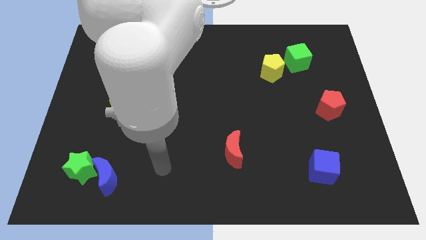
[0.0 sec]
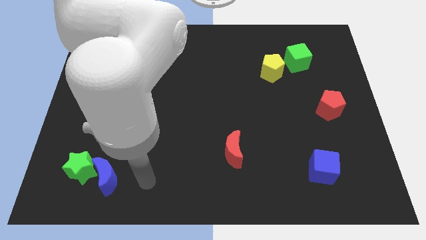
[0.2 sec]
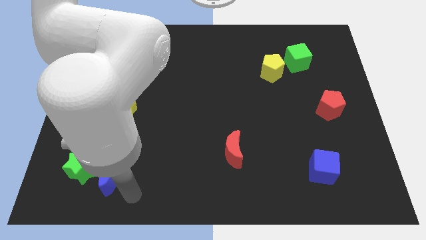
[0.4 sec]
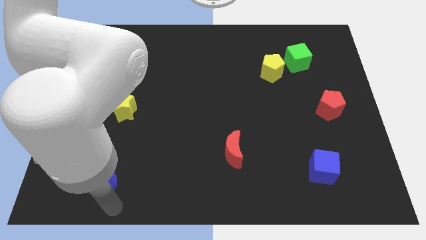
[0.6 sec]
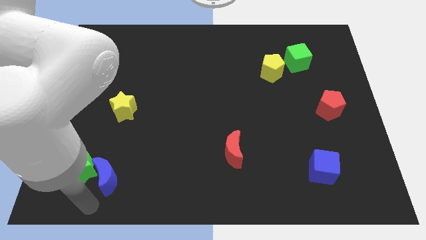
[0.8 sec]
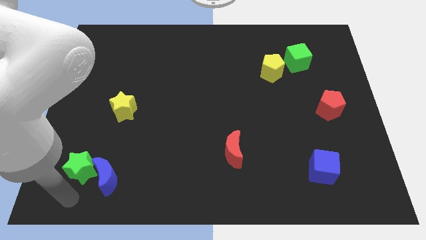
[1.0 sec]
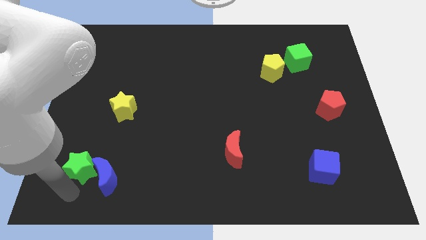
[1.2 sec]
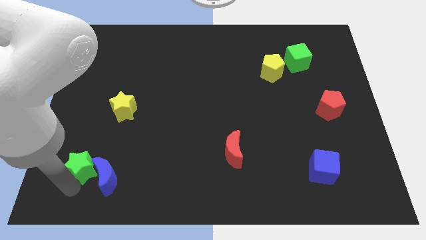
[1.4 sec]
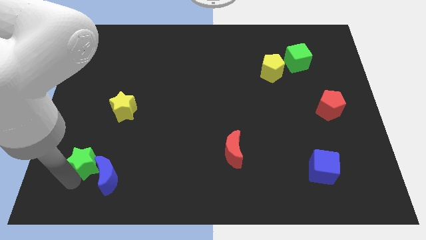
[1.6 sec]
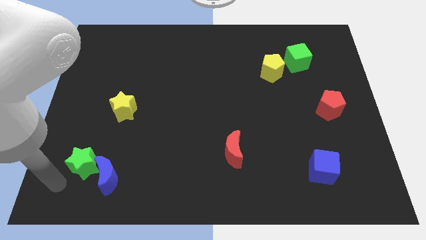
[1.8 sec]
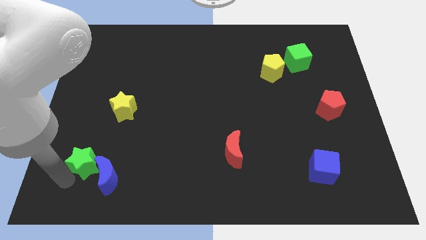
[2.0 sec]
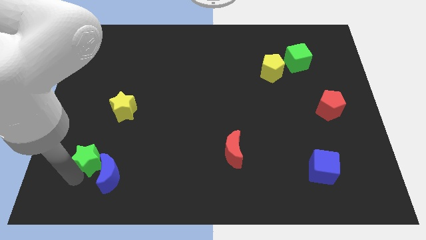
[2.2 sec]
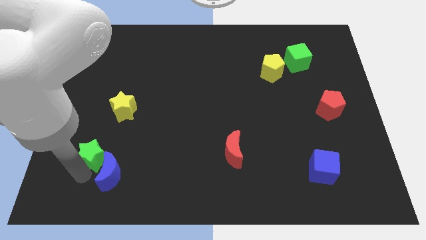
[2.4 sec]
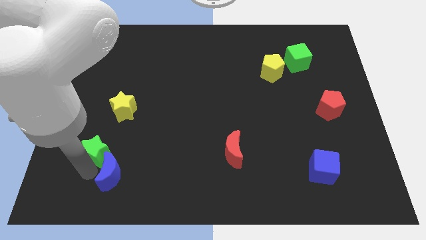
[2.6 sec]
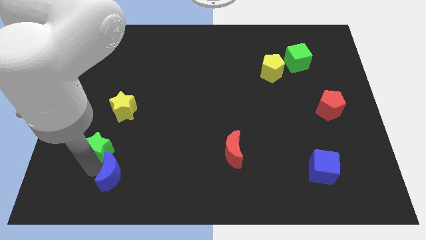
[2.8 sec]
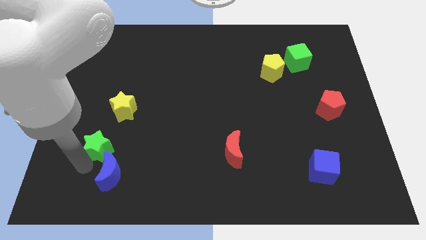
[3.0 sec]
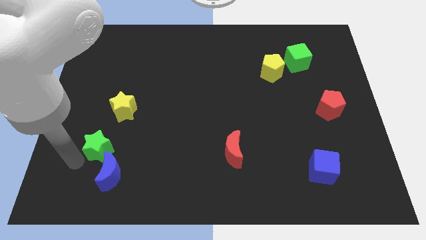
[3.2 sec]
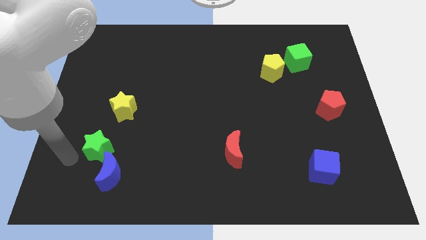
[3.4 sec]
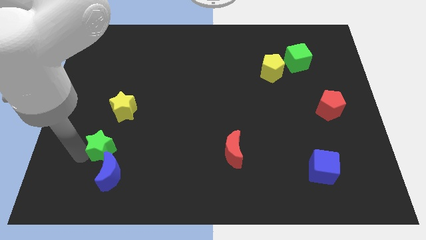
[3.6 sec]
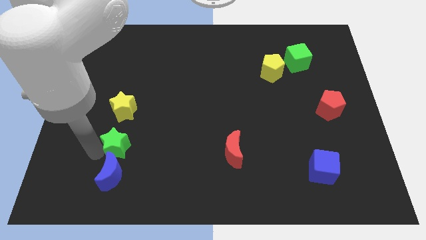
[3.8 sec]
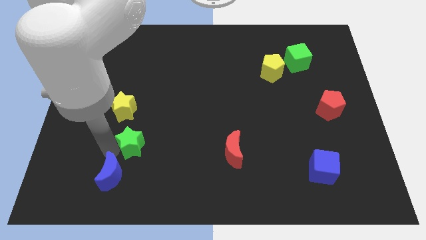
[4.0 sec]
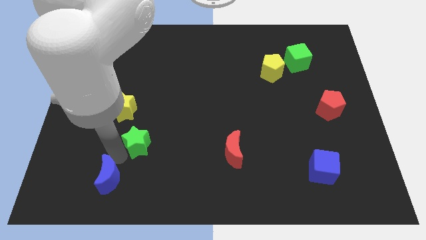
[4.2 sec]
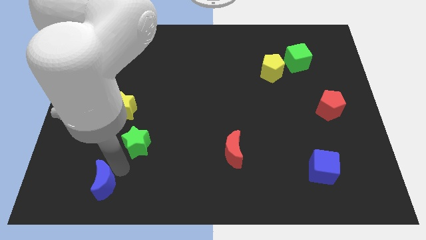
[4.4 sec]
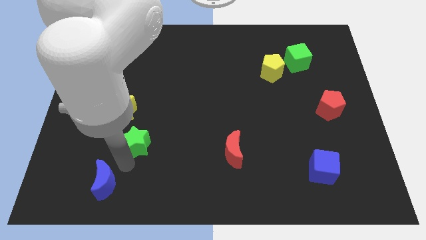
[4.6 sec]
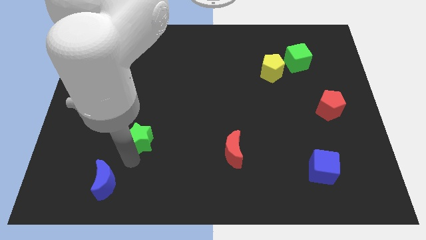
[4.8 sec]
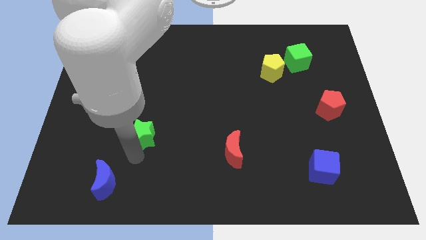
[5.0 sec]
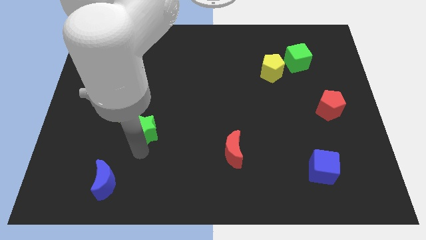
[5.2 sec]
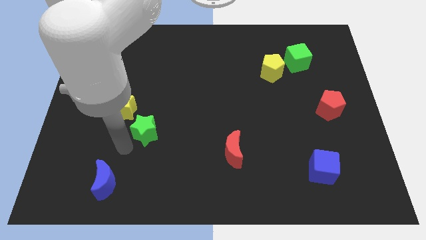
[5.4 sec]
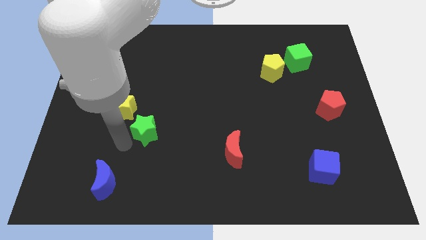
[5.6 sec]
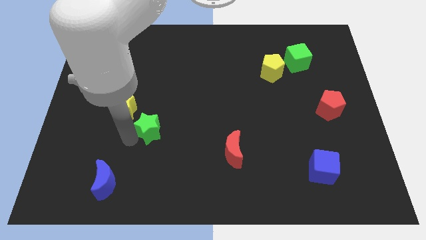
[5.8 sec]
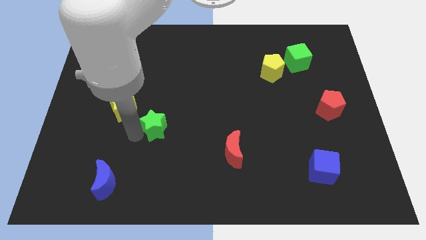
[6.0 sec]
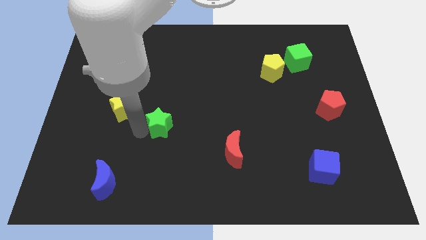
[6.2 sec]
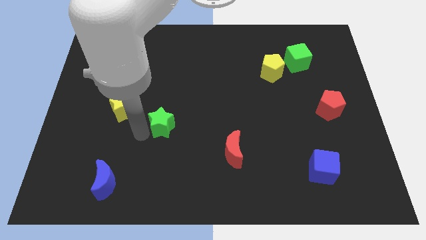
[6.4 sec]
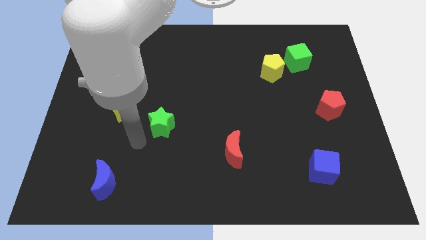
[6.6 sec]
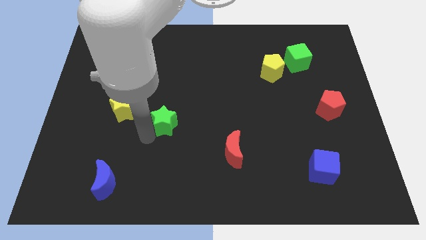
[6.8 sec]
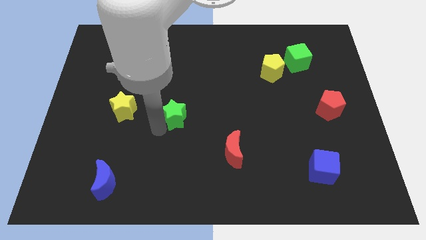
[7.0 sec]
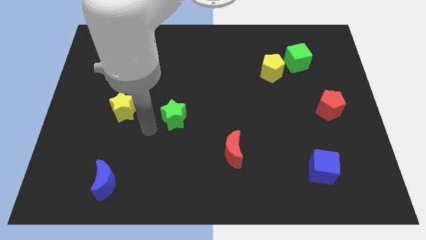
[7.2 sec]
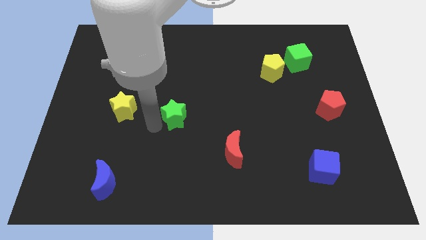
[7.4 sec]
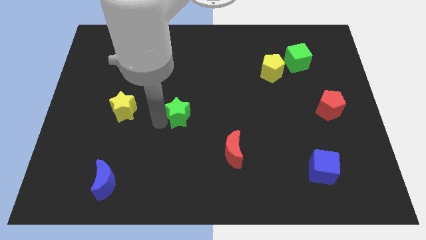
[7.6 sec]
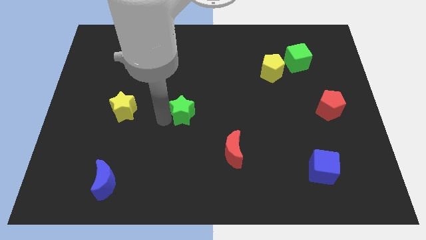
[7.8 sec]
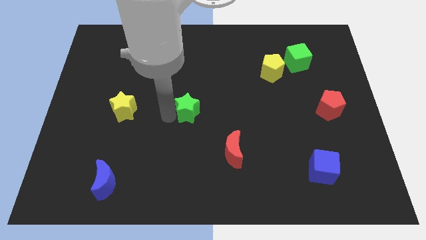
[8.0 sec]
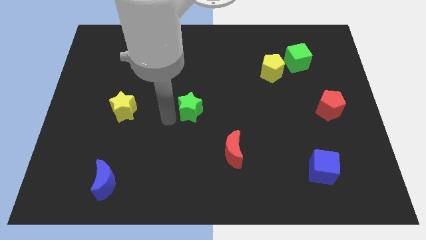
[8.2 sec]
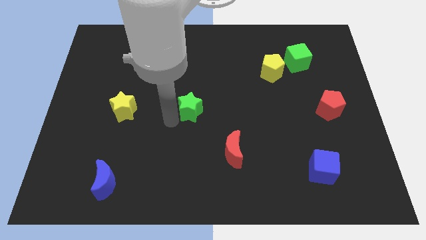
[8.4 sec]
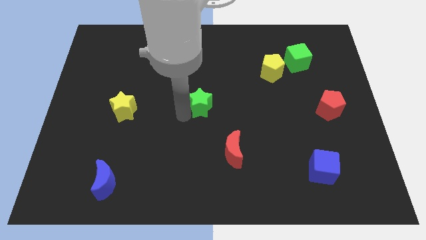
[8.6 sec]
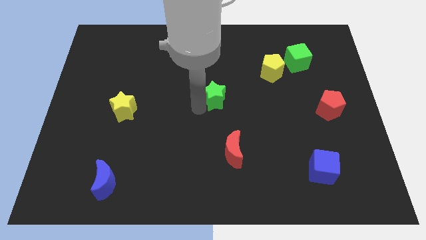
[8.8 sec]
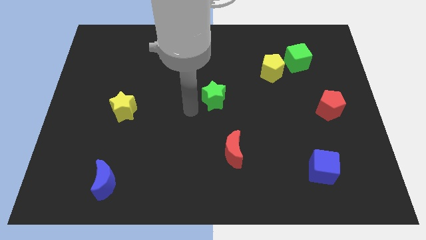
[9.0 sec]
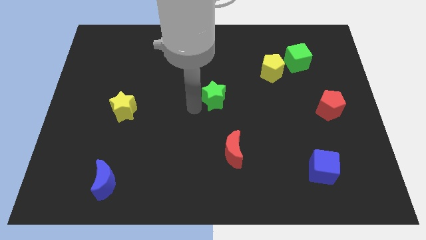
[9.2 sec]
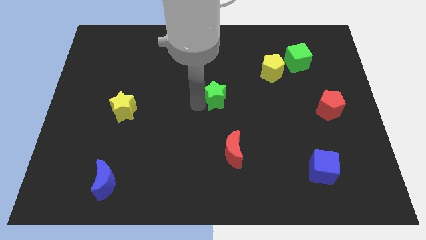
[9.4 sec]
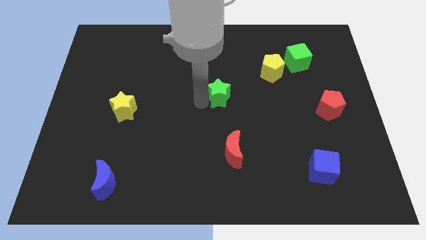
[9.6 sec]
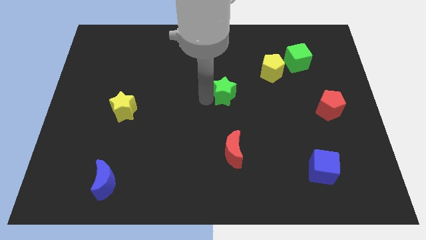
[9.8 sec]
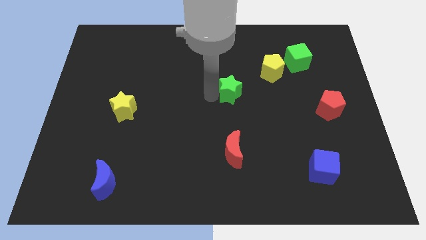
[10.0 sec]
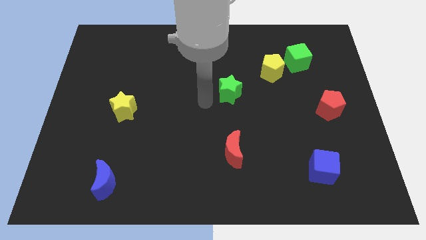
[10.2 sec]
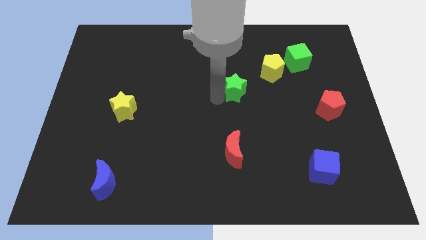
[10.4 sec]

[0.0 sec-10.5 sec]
move the green star to the bottom left of the yellow pentagon
